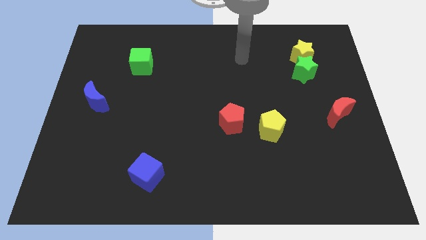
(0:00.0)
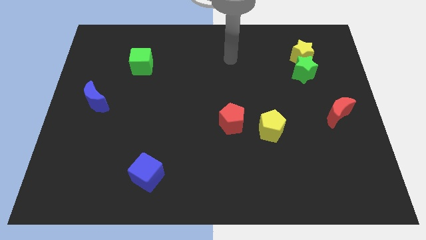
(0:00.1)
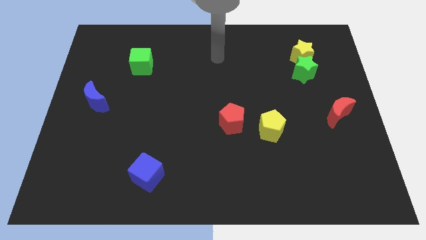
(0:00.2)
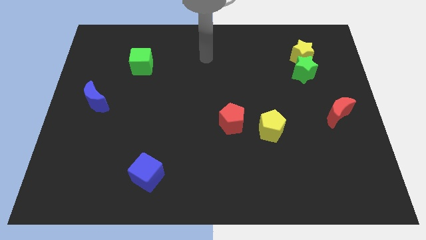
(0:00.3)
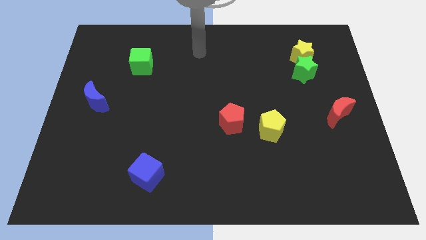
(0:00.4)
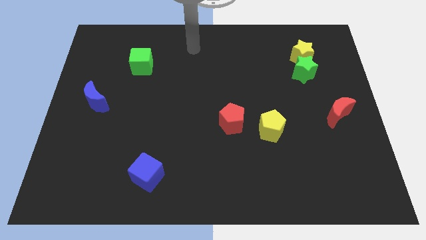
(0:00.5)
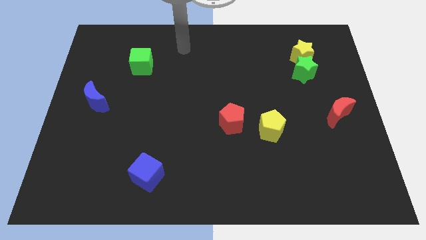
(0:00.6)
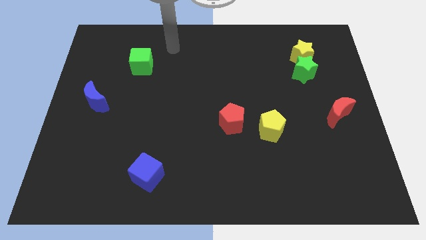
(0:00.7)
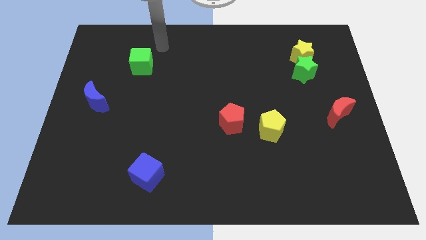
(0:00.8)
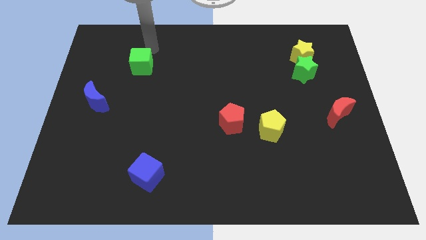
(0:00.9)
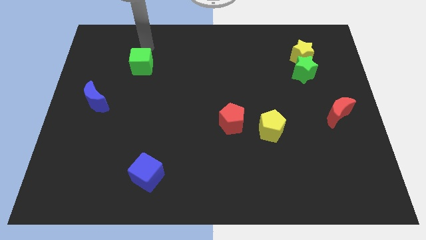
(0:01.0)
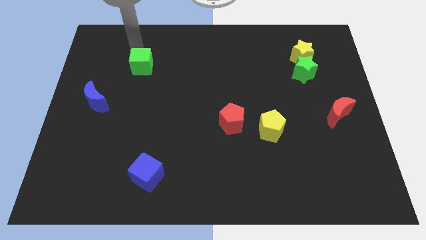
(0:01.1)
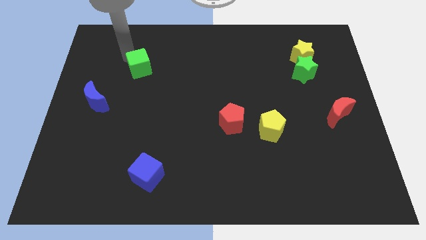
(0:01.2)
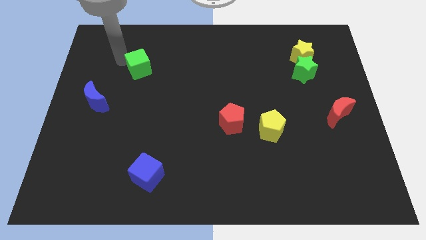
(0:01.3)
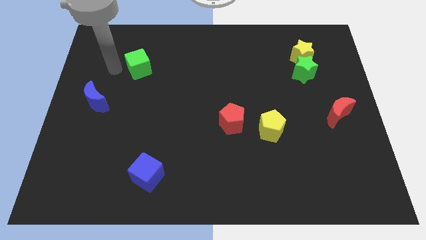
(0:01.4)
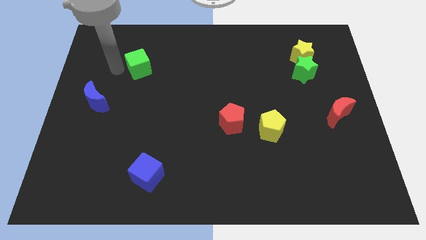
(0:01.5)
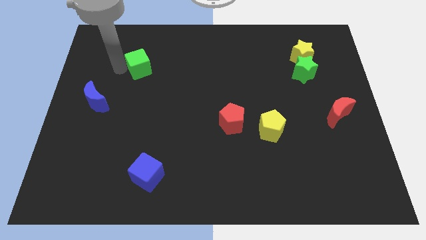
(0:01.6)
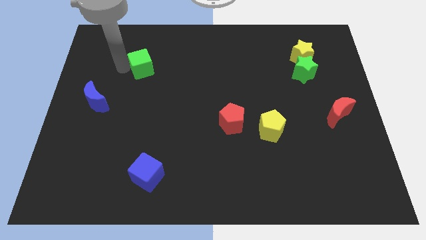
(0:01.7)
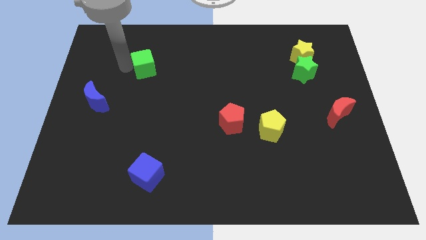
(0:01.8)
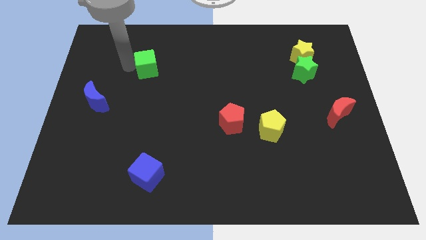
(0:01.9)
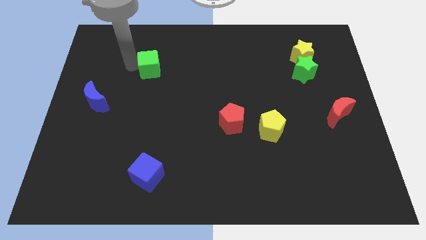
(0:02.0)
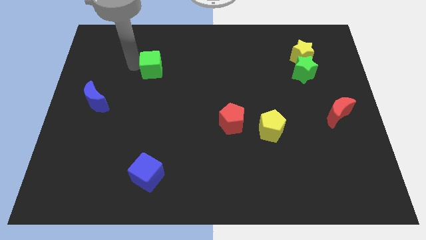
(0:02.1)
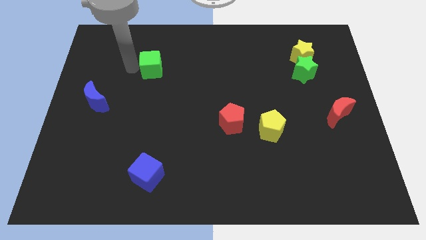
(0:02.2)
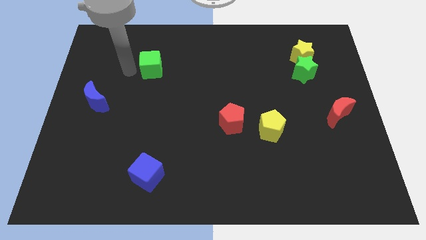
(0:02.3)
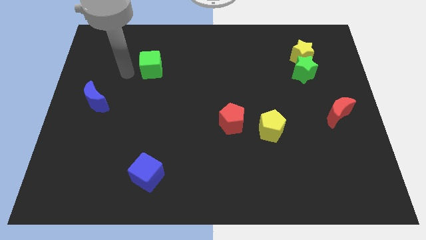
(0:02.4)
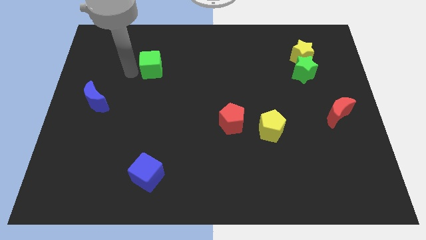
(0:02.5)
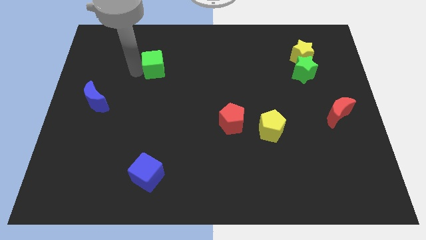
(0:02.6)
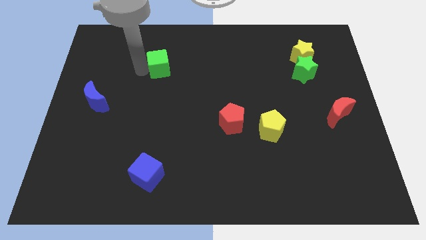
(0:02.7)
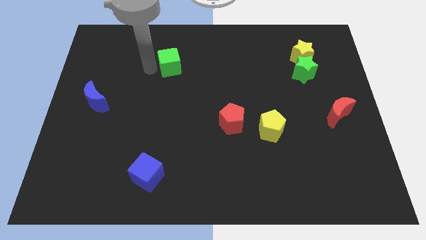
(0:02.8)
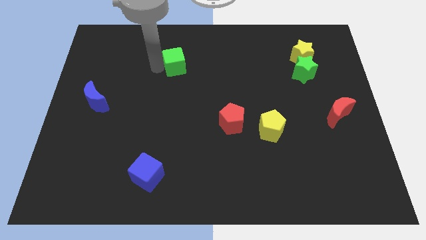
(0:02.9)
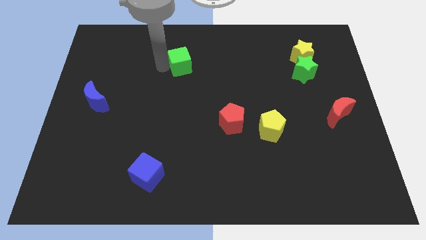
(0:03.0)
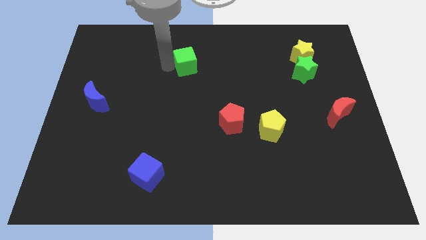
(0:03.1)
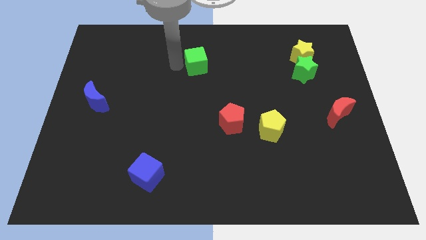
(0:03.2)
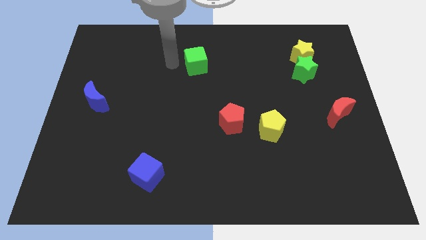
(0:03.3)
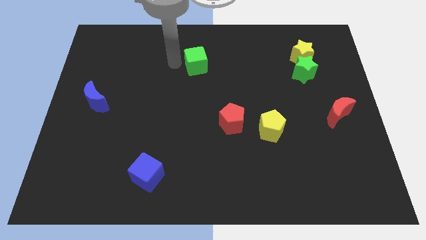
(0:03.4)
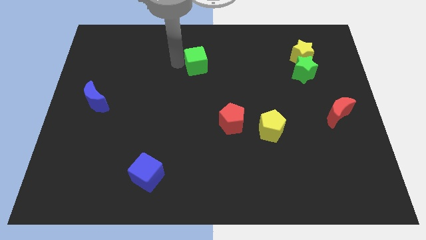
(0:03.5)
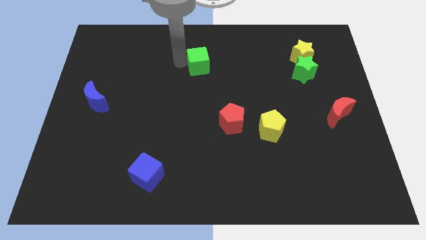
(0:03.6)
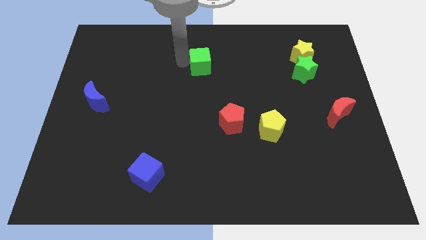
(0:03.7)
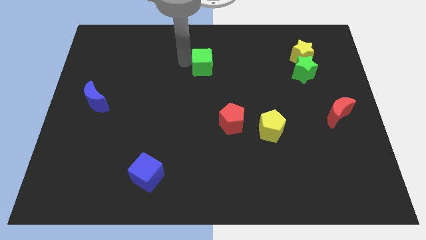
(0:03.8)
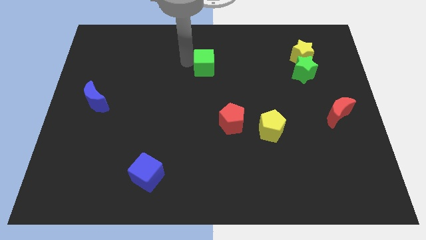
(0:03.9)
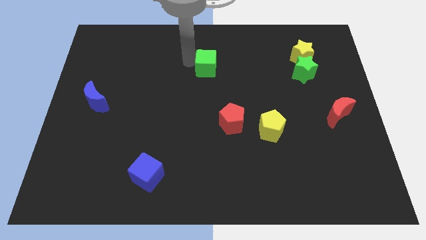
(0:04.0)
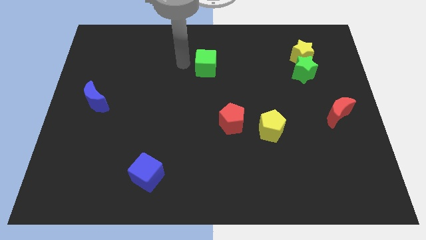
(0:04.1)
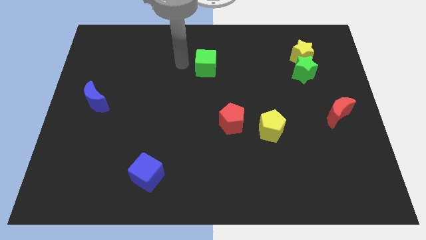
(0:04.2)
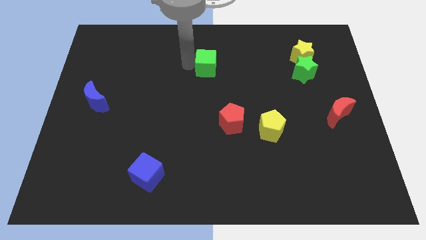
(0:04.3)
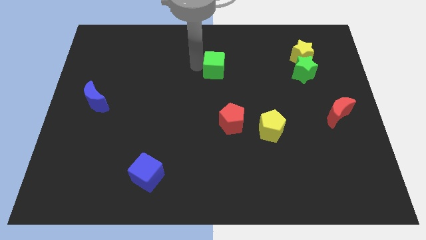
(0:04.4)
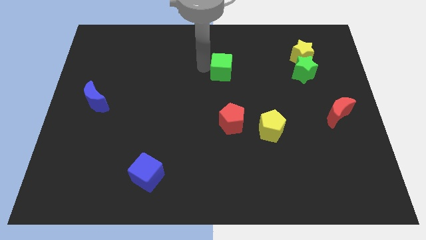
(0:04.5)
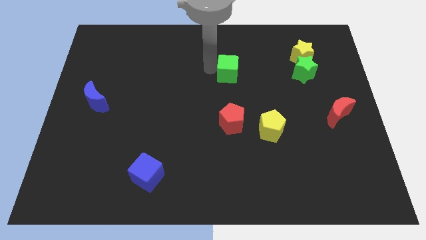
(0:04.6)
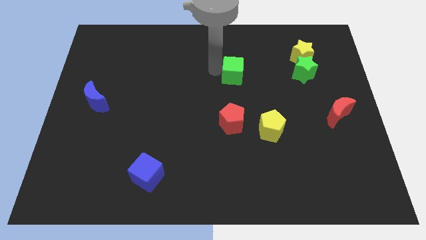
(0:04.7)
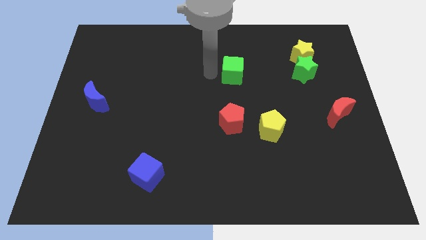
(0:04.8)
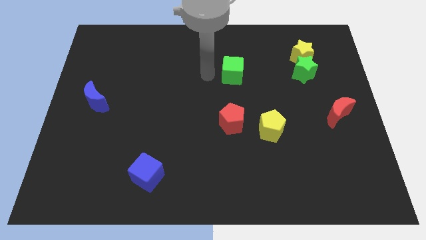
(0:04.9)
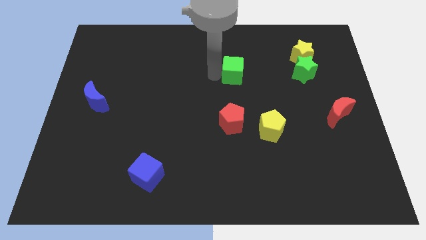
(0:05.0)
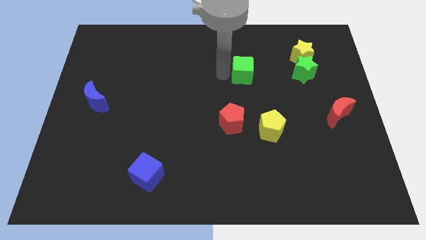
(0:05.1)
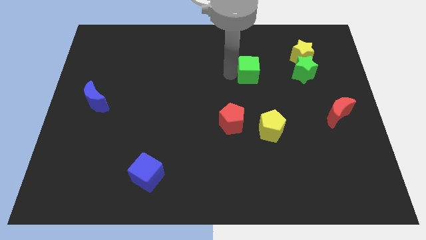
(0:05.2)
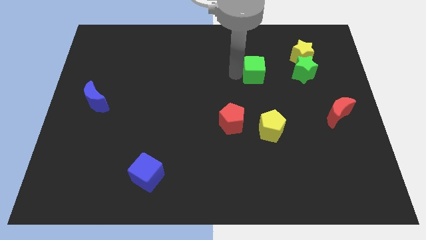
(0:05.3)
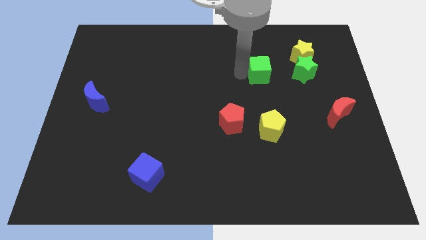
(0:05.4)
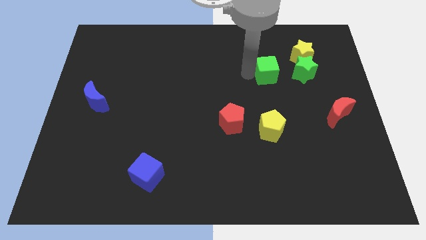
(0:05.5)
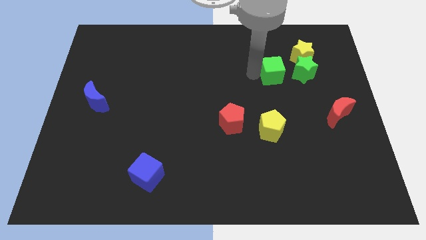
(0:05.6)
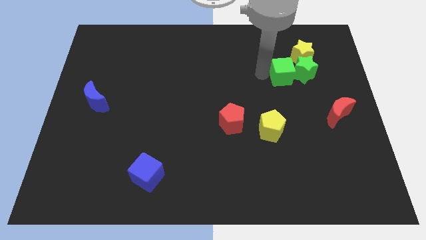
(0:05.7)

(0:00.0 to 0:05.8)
put the green cube next to the green star
